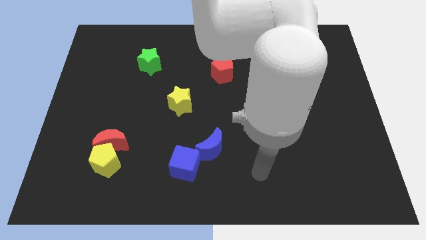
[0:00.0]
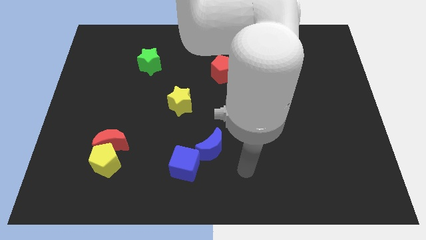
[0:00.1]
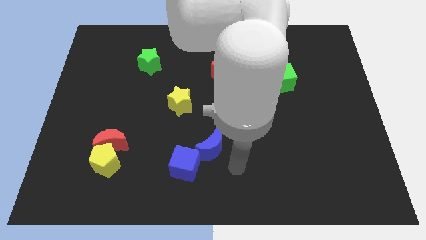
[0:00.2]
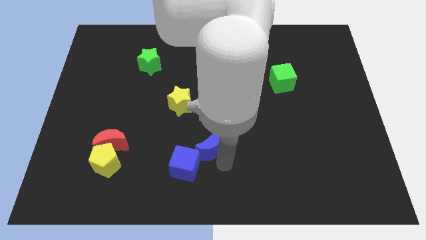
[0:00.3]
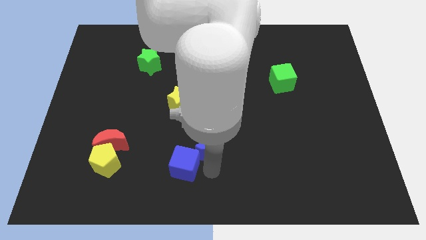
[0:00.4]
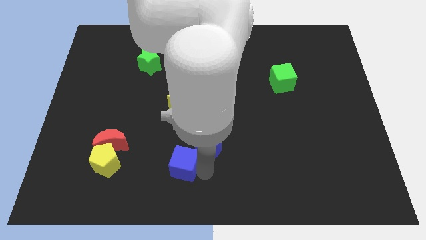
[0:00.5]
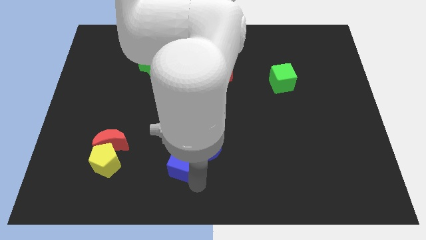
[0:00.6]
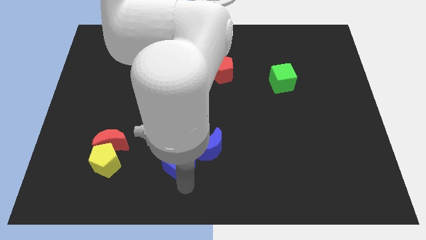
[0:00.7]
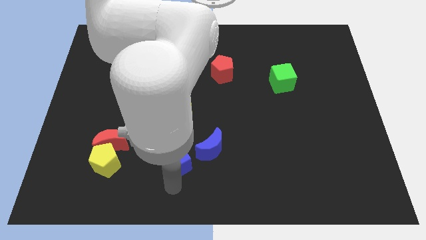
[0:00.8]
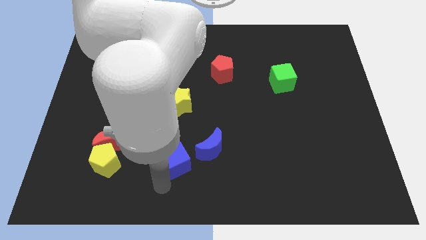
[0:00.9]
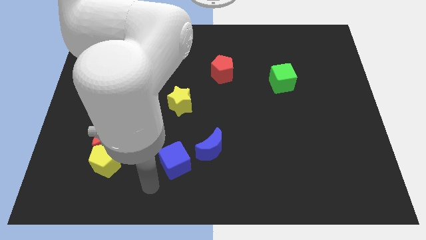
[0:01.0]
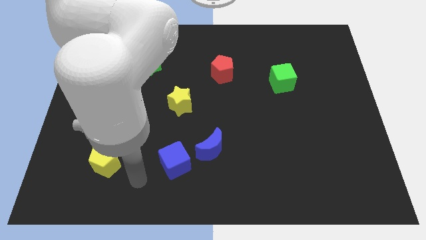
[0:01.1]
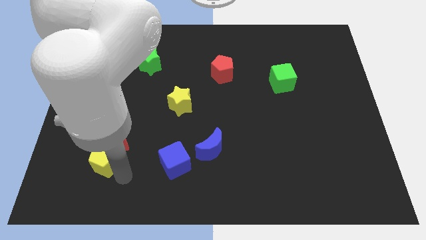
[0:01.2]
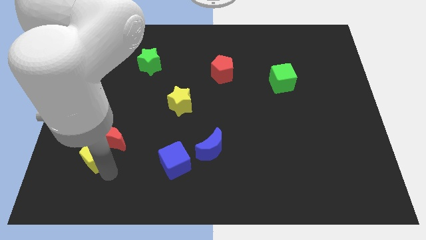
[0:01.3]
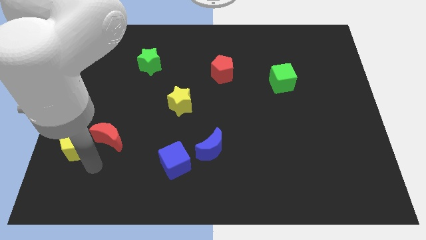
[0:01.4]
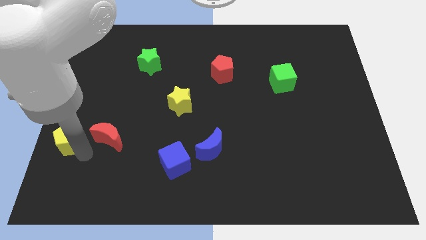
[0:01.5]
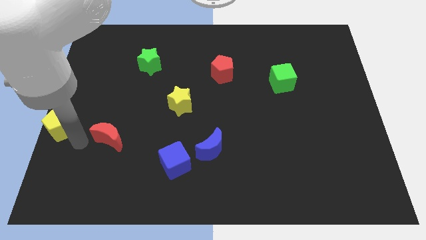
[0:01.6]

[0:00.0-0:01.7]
separate the red moon from the yellow pentagon

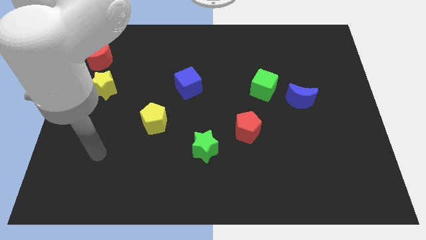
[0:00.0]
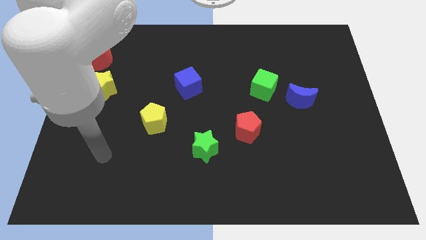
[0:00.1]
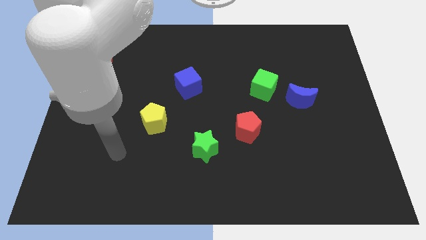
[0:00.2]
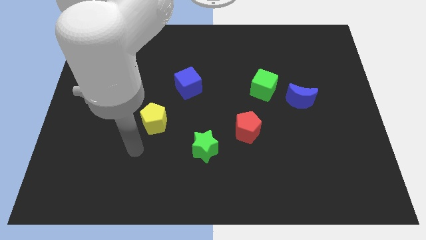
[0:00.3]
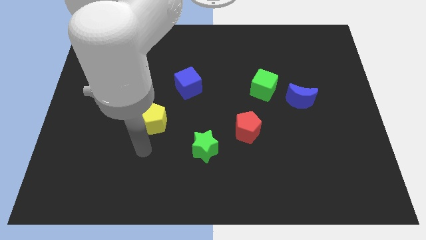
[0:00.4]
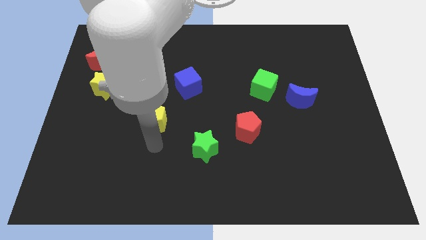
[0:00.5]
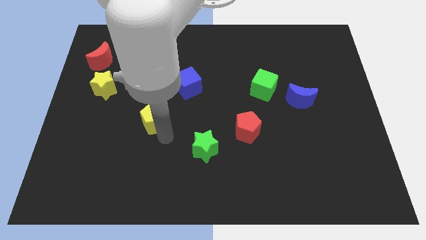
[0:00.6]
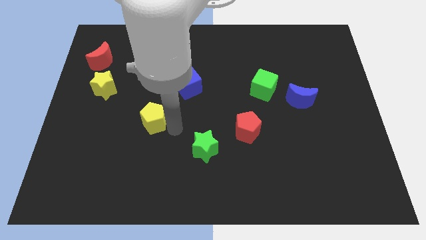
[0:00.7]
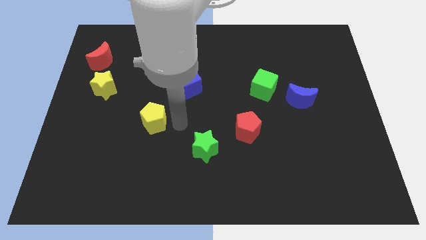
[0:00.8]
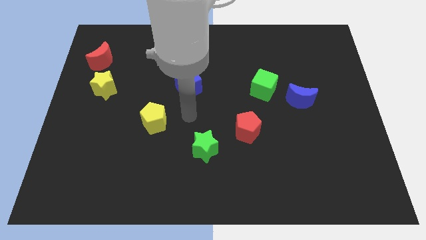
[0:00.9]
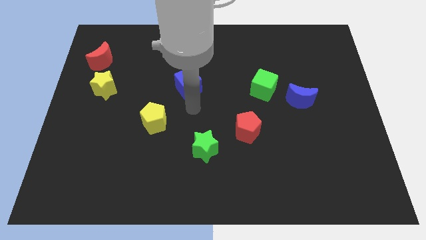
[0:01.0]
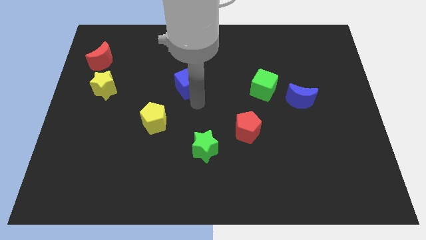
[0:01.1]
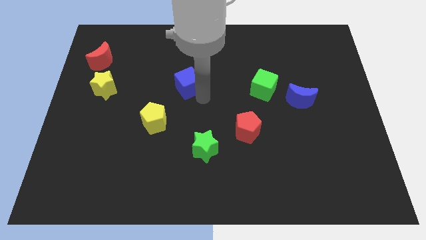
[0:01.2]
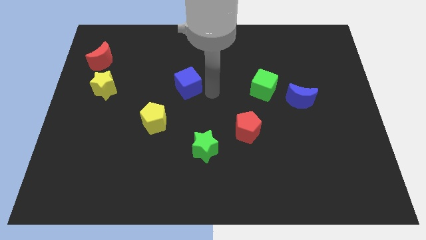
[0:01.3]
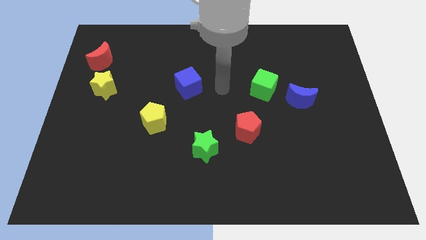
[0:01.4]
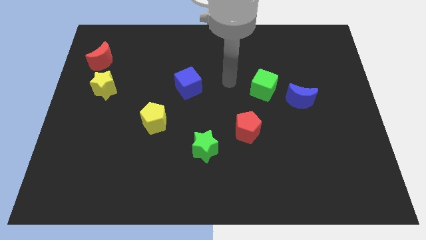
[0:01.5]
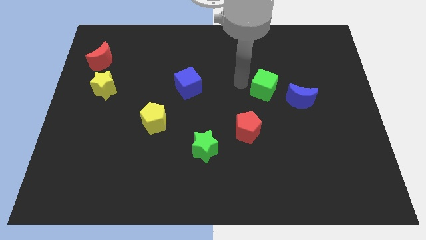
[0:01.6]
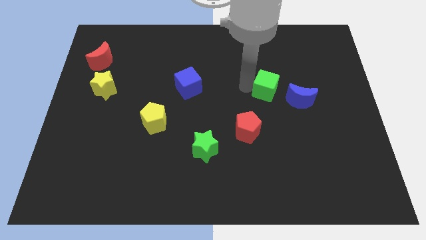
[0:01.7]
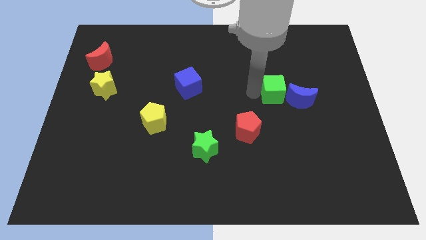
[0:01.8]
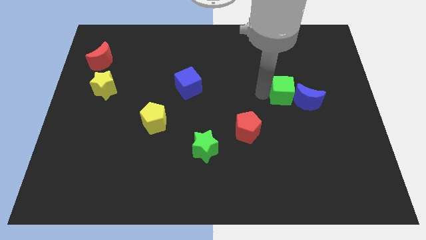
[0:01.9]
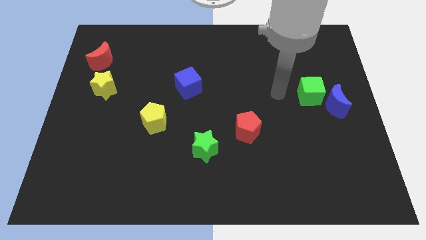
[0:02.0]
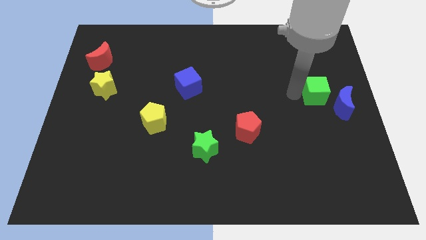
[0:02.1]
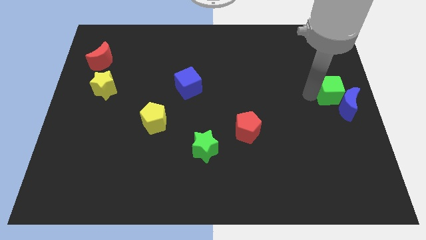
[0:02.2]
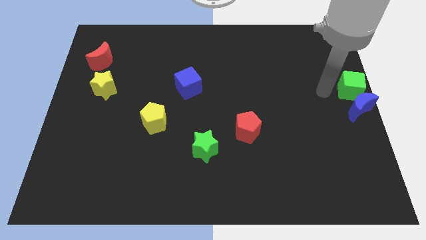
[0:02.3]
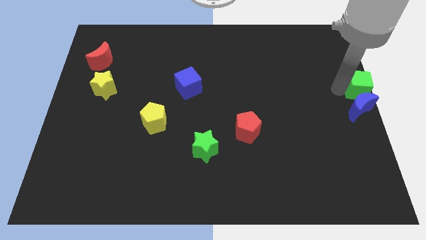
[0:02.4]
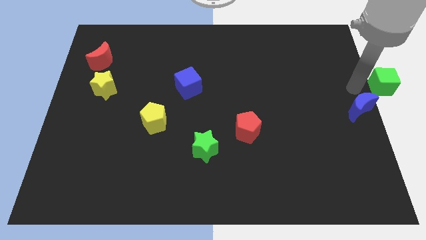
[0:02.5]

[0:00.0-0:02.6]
pull the blue moon apart from the green cube

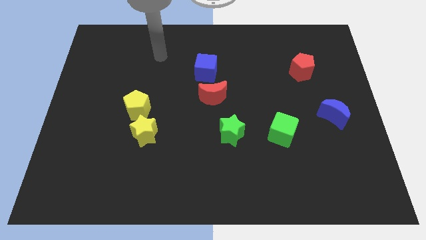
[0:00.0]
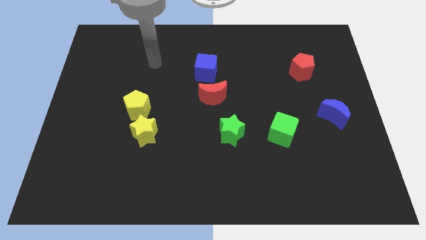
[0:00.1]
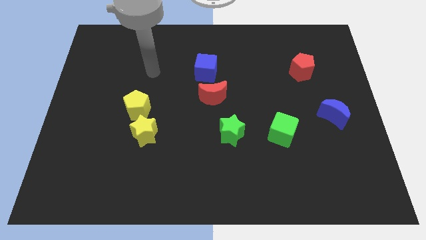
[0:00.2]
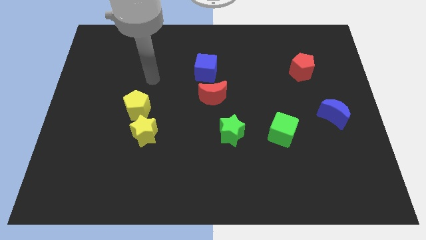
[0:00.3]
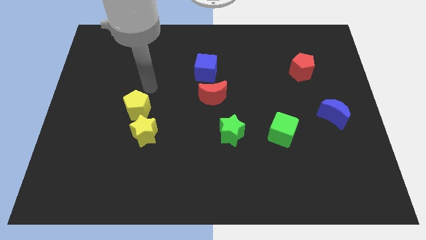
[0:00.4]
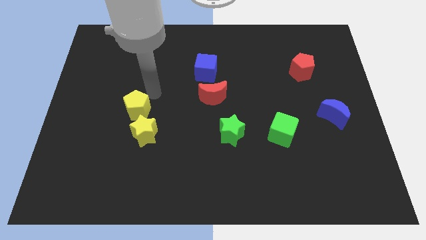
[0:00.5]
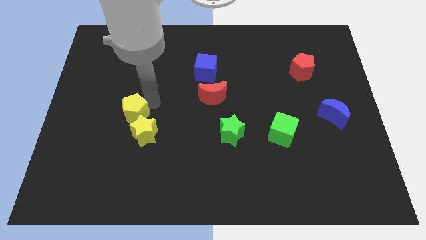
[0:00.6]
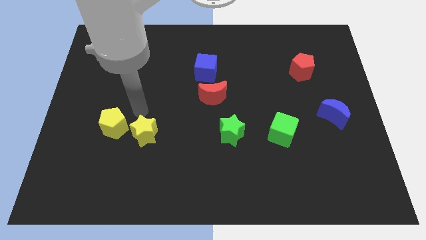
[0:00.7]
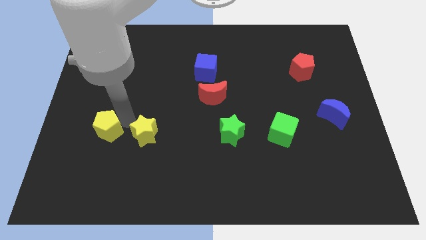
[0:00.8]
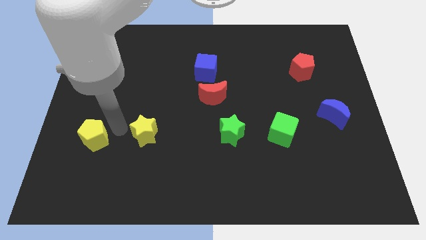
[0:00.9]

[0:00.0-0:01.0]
separate the yellow star from the yellow pentagon

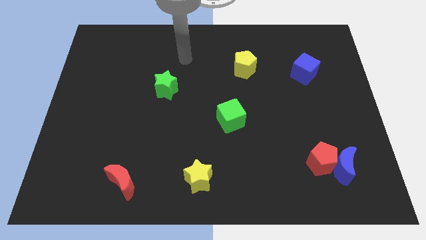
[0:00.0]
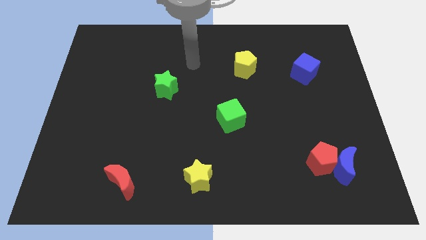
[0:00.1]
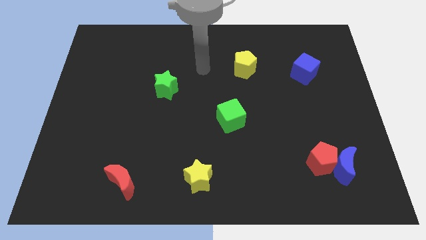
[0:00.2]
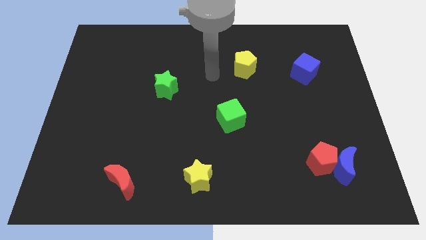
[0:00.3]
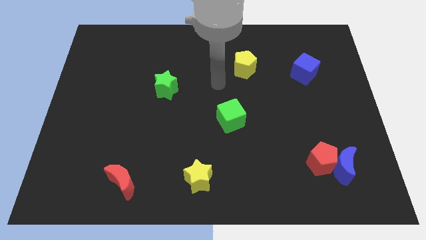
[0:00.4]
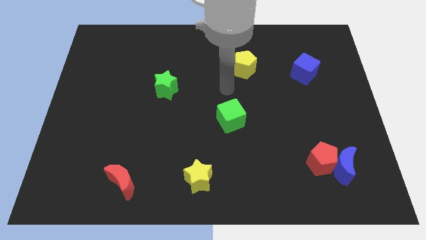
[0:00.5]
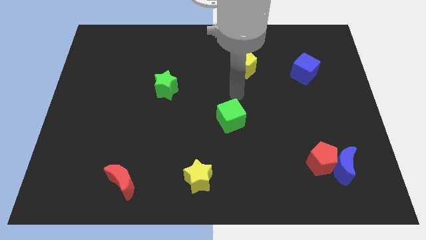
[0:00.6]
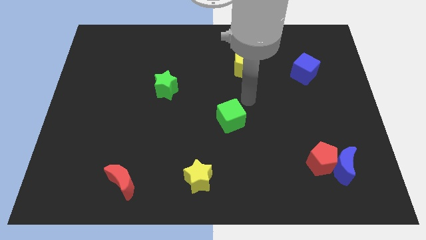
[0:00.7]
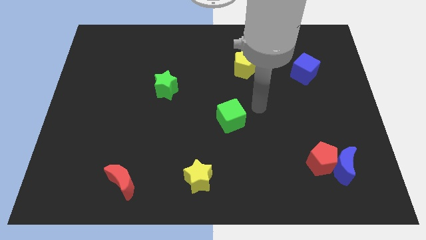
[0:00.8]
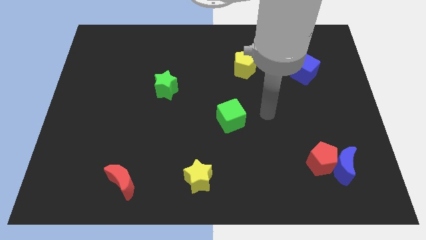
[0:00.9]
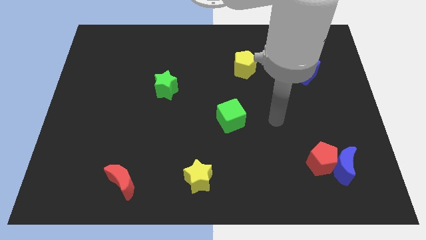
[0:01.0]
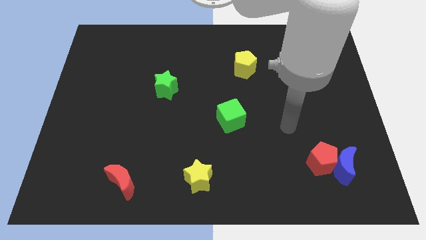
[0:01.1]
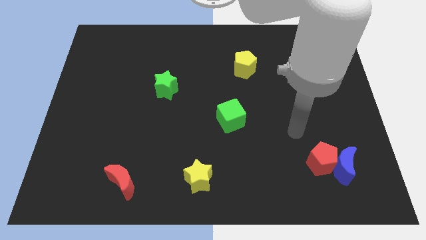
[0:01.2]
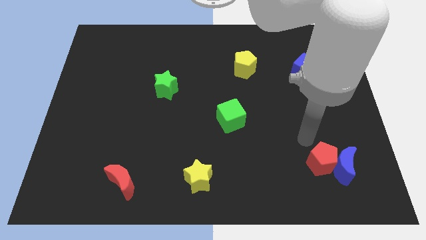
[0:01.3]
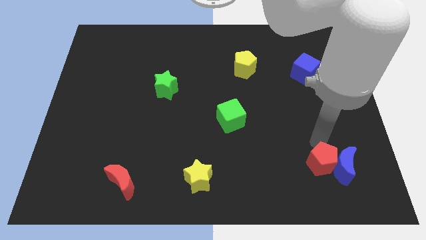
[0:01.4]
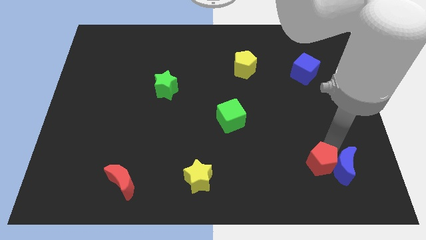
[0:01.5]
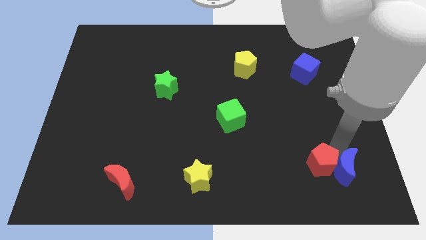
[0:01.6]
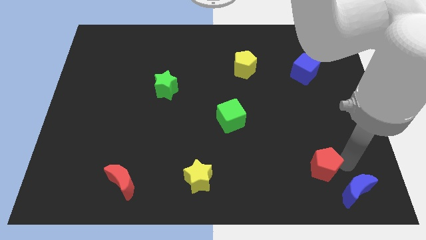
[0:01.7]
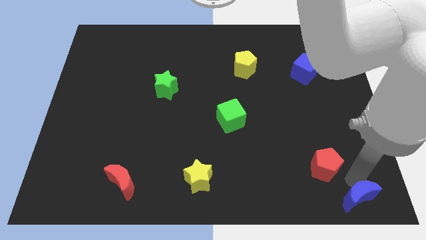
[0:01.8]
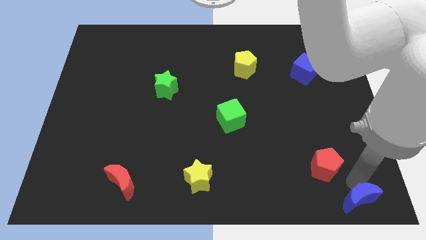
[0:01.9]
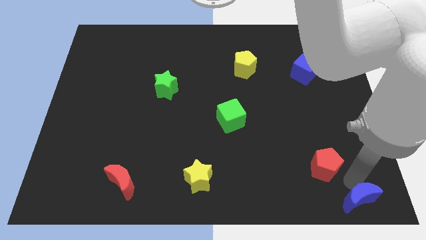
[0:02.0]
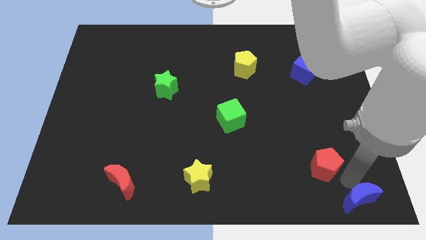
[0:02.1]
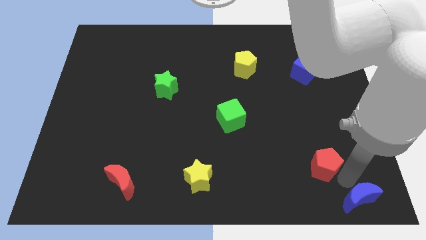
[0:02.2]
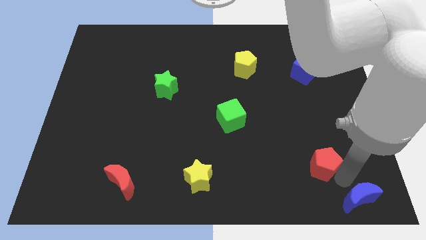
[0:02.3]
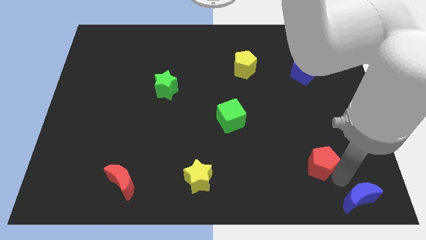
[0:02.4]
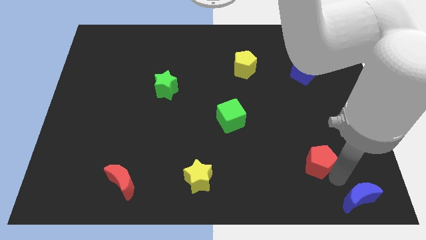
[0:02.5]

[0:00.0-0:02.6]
separate the red pentagon from the blue moon

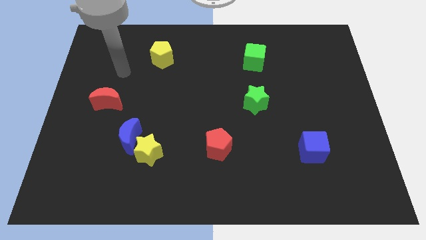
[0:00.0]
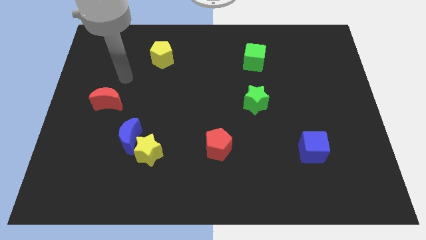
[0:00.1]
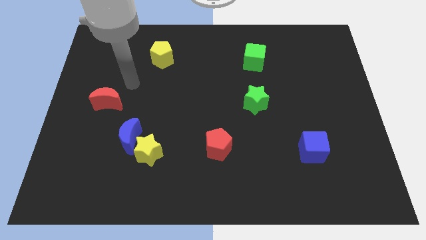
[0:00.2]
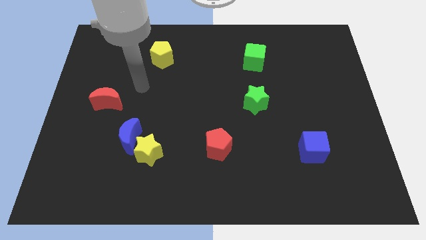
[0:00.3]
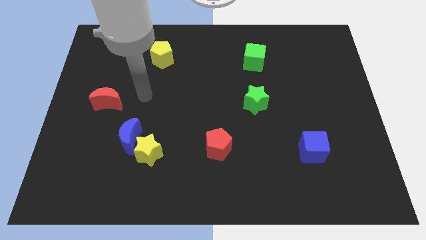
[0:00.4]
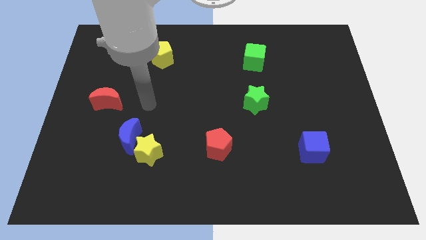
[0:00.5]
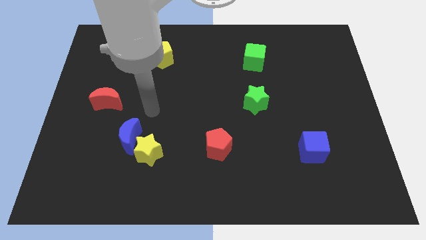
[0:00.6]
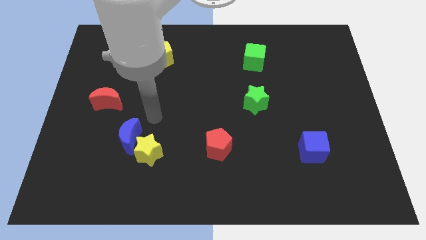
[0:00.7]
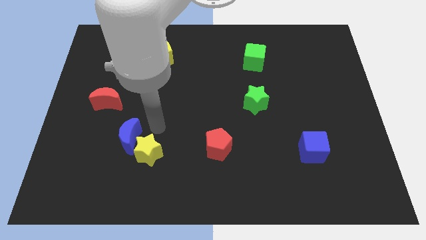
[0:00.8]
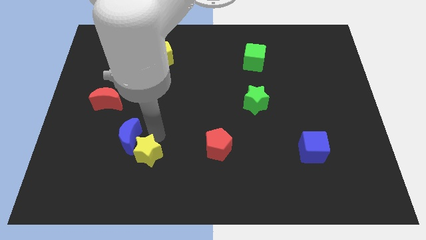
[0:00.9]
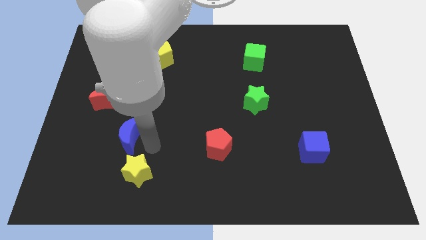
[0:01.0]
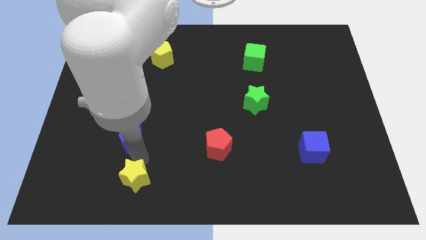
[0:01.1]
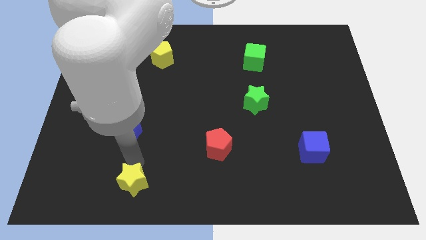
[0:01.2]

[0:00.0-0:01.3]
pull the blue moon apart from the yellow star

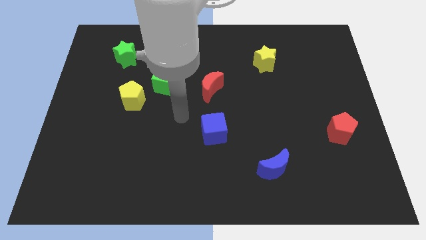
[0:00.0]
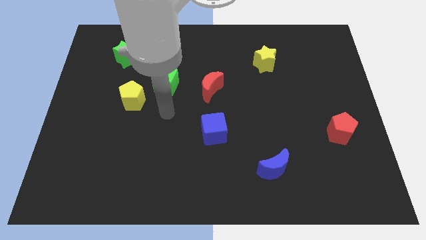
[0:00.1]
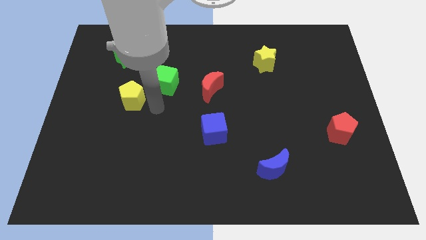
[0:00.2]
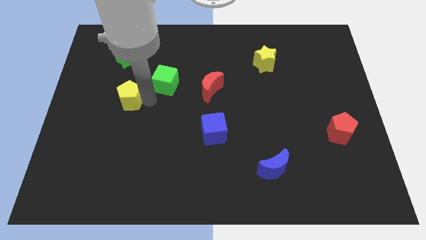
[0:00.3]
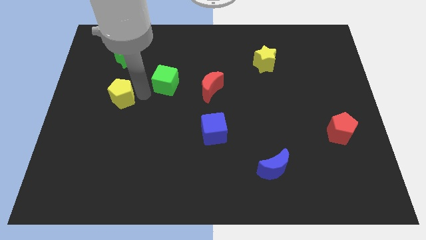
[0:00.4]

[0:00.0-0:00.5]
pull the green cube apart from the yellow pentagon
